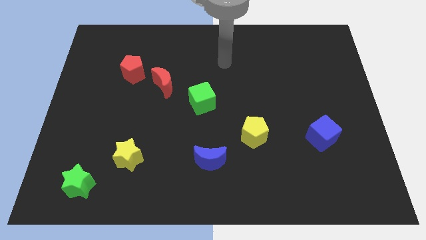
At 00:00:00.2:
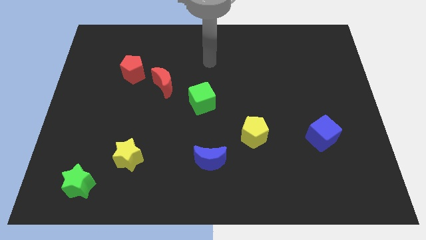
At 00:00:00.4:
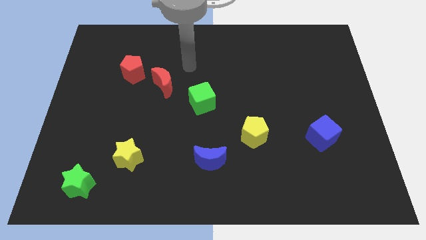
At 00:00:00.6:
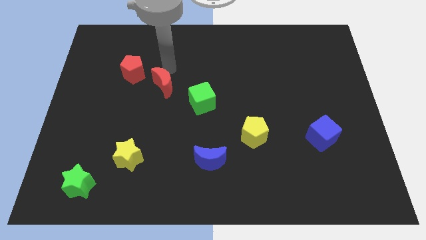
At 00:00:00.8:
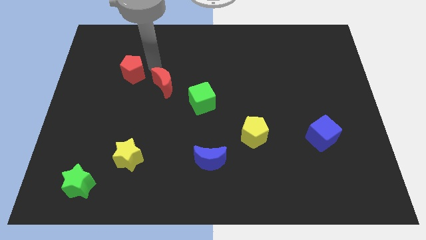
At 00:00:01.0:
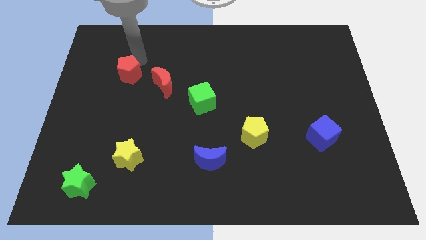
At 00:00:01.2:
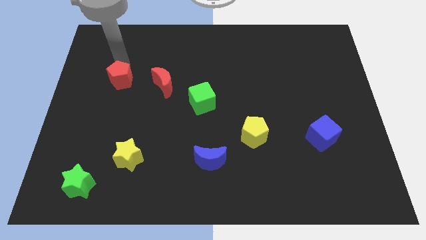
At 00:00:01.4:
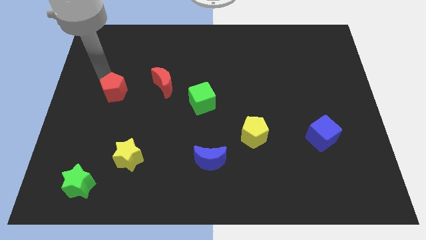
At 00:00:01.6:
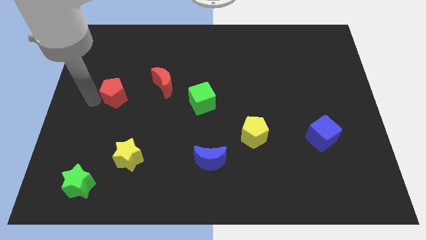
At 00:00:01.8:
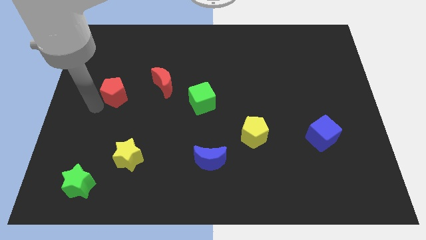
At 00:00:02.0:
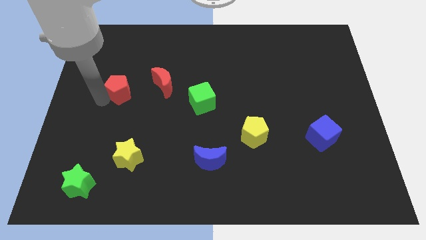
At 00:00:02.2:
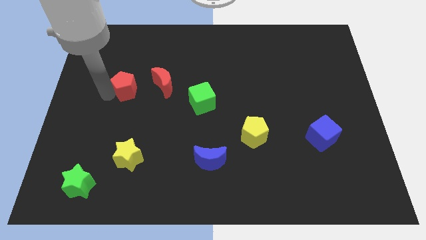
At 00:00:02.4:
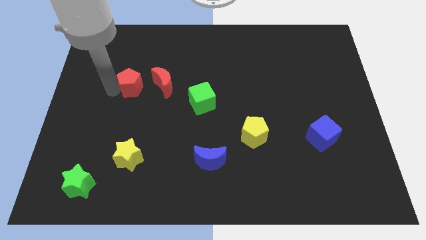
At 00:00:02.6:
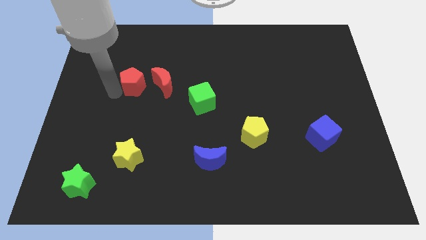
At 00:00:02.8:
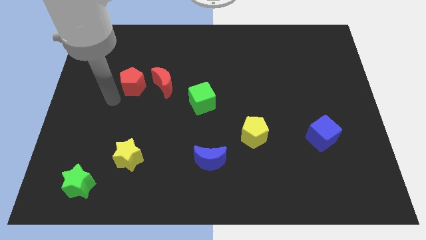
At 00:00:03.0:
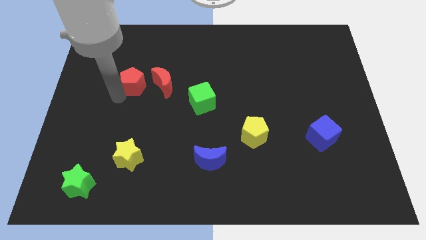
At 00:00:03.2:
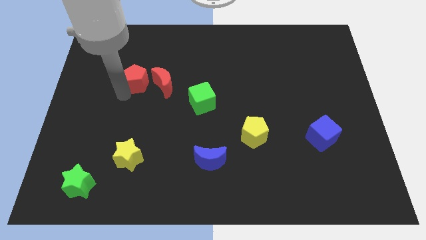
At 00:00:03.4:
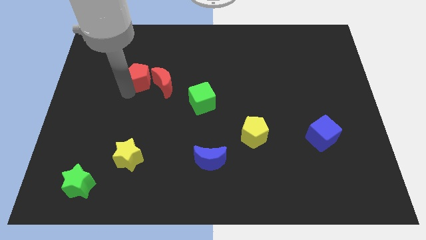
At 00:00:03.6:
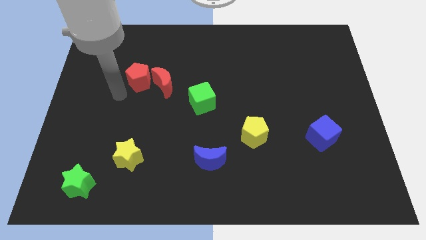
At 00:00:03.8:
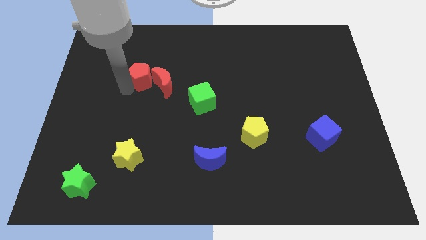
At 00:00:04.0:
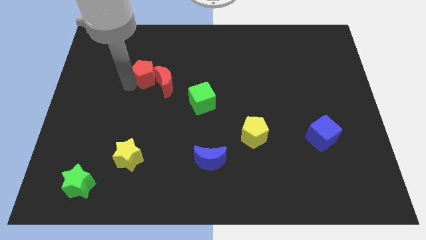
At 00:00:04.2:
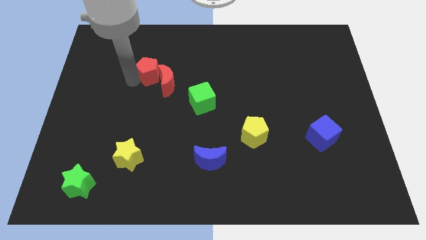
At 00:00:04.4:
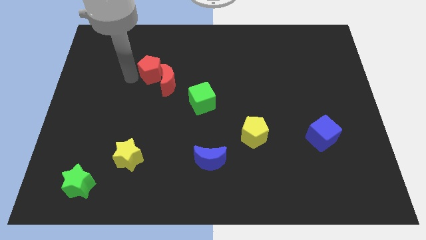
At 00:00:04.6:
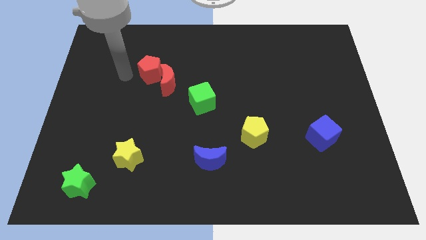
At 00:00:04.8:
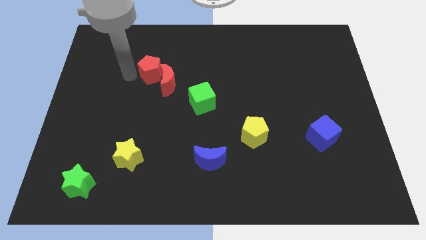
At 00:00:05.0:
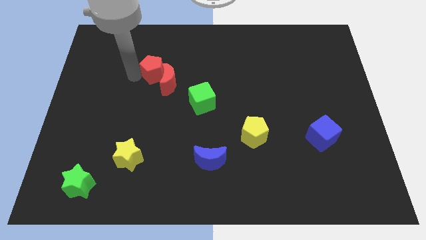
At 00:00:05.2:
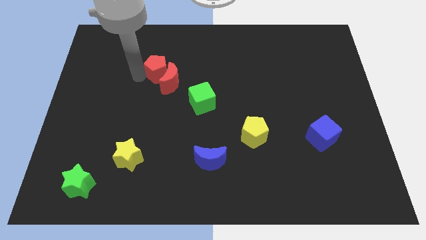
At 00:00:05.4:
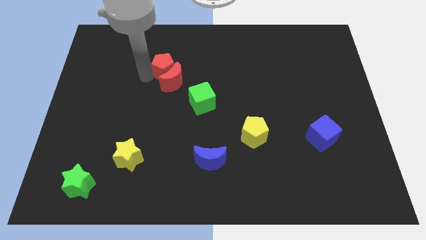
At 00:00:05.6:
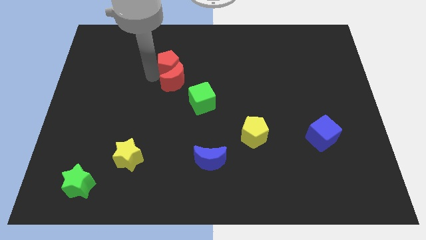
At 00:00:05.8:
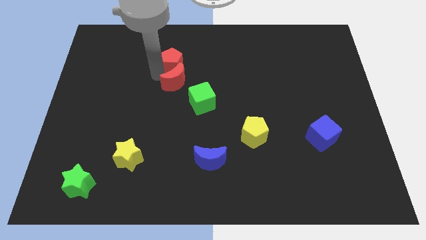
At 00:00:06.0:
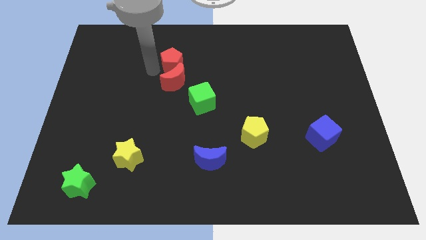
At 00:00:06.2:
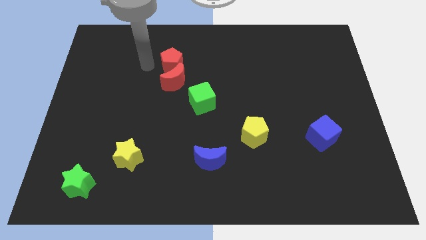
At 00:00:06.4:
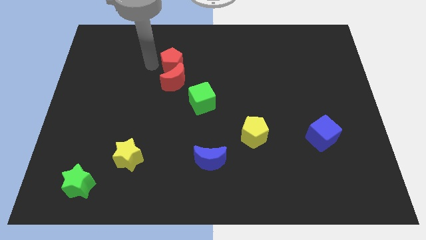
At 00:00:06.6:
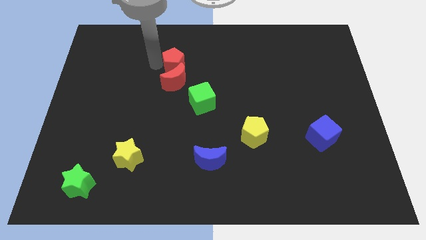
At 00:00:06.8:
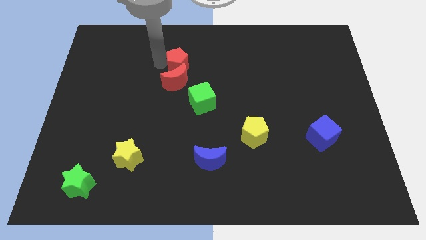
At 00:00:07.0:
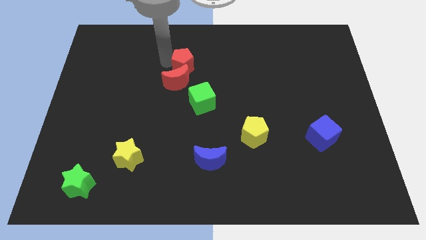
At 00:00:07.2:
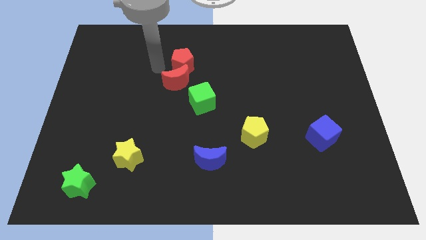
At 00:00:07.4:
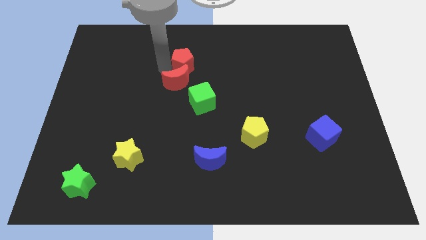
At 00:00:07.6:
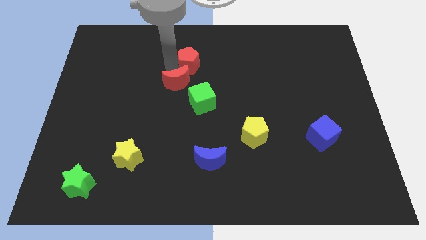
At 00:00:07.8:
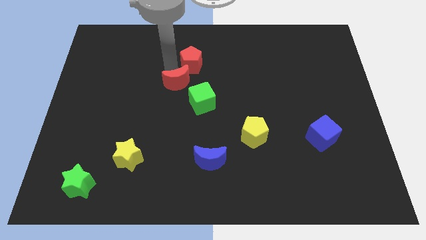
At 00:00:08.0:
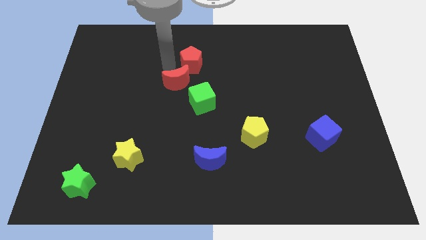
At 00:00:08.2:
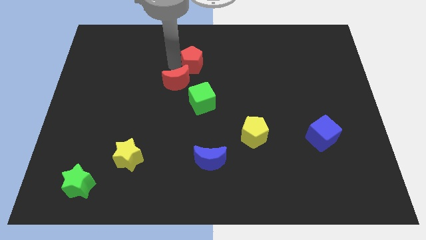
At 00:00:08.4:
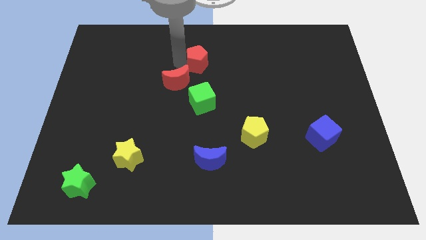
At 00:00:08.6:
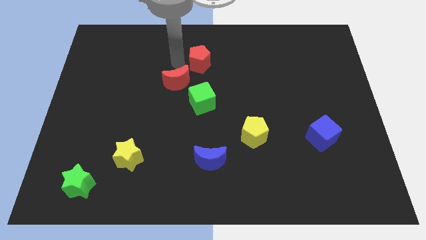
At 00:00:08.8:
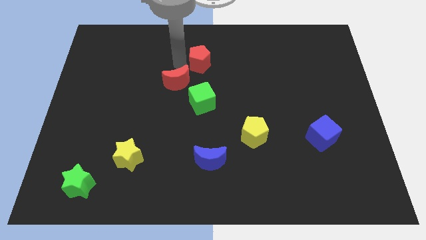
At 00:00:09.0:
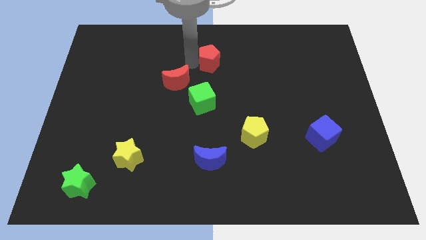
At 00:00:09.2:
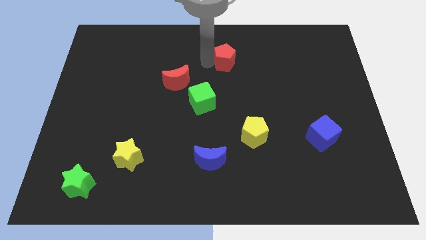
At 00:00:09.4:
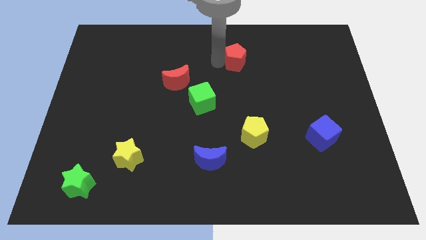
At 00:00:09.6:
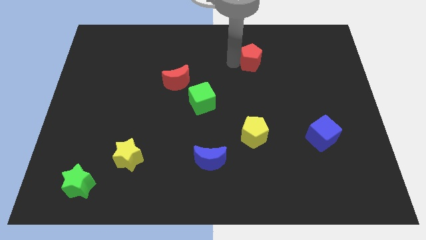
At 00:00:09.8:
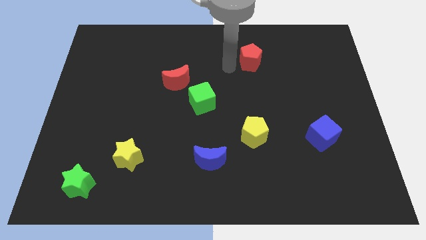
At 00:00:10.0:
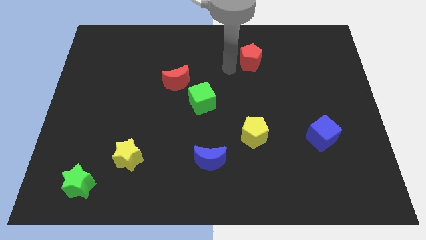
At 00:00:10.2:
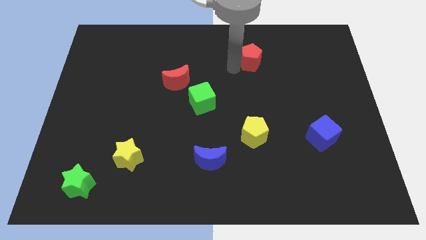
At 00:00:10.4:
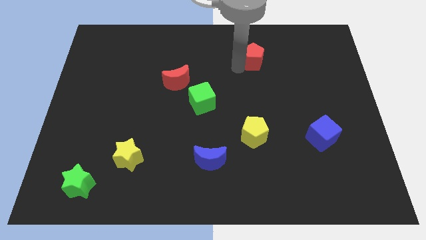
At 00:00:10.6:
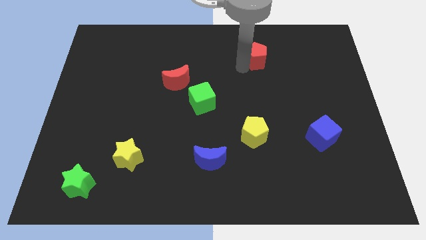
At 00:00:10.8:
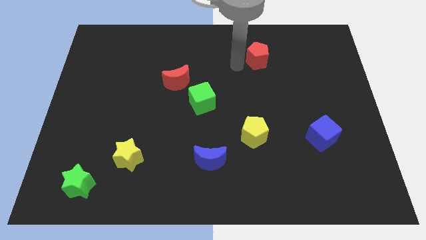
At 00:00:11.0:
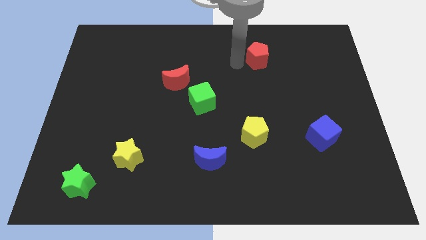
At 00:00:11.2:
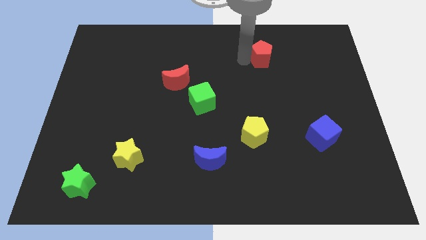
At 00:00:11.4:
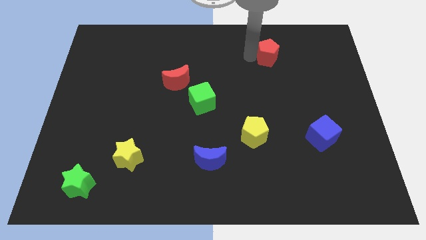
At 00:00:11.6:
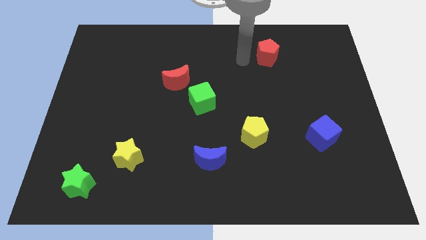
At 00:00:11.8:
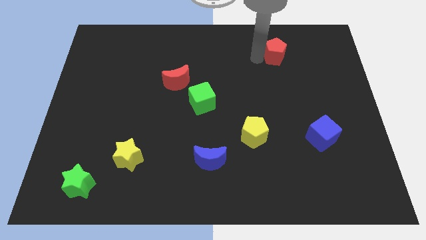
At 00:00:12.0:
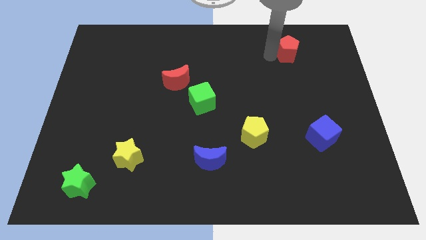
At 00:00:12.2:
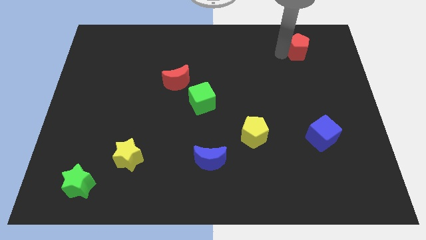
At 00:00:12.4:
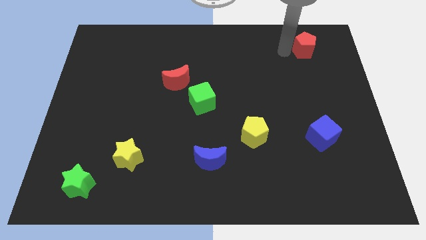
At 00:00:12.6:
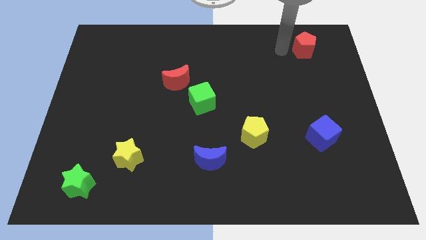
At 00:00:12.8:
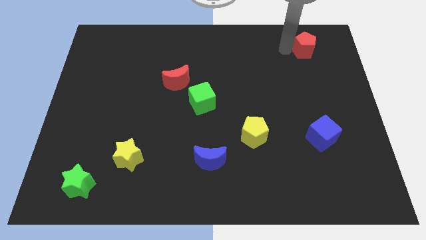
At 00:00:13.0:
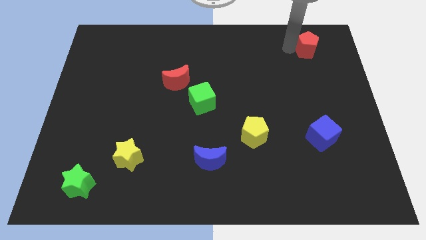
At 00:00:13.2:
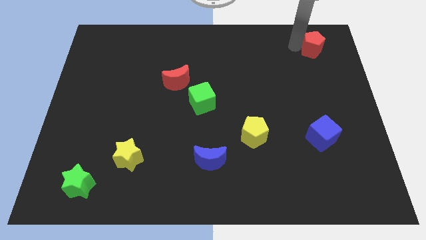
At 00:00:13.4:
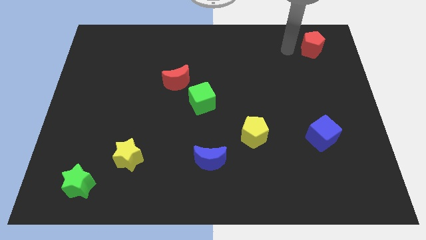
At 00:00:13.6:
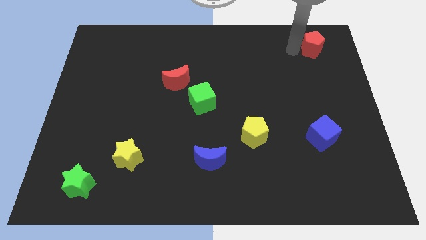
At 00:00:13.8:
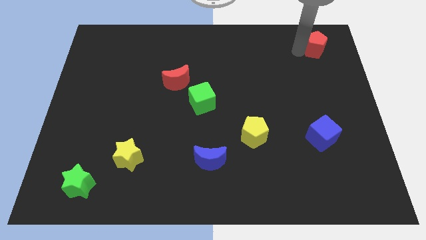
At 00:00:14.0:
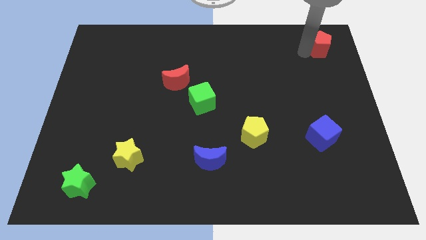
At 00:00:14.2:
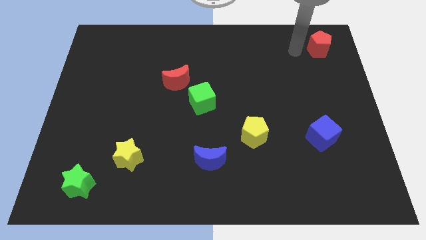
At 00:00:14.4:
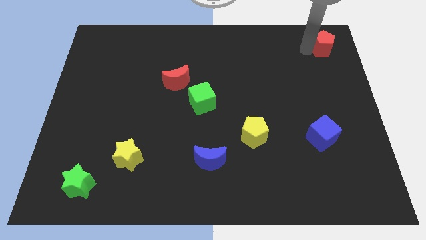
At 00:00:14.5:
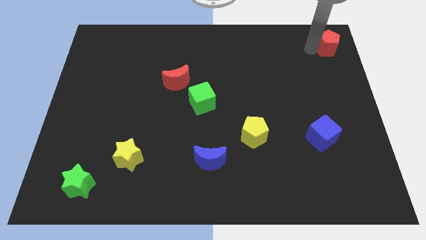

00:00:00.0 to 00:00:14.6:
put the red pentagon to the top right corner
